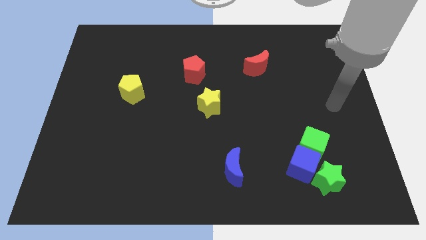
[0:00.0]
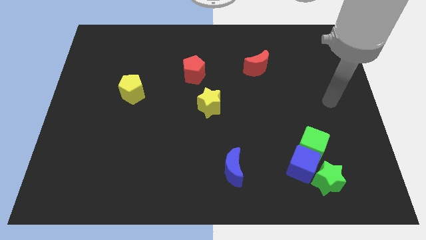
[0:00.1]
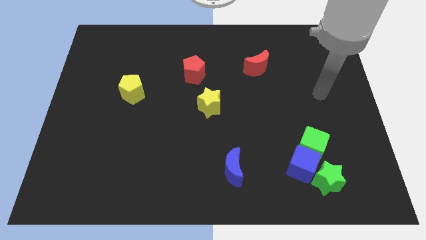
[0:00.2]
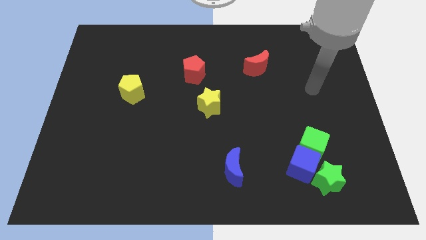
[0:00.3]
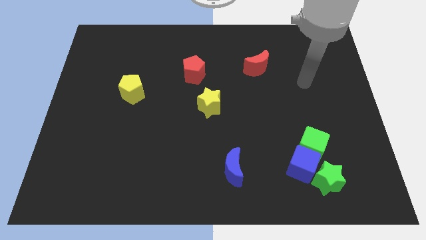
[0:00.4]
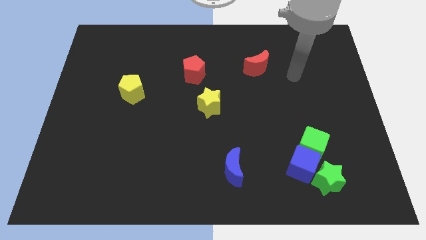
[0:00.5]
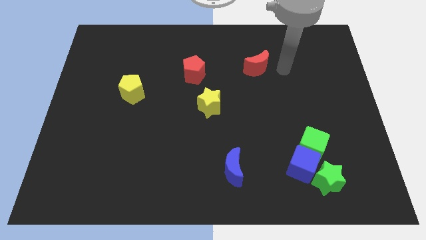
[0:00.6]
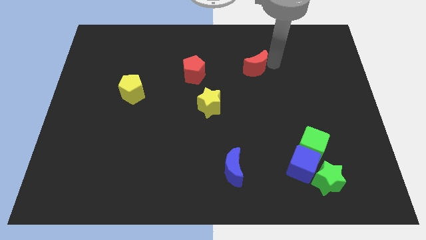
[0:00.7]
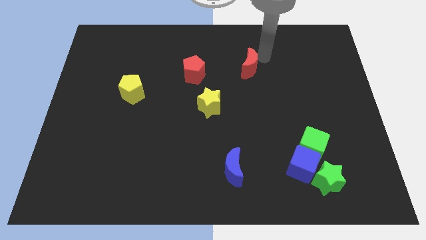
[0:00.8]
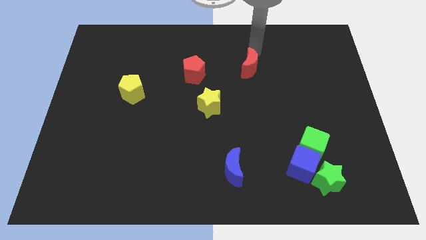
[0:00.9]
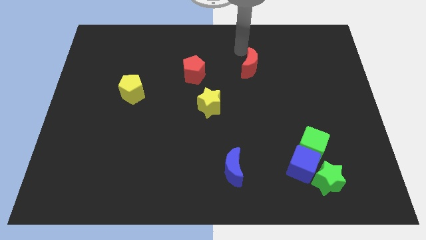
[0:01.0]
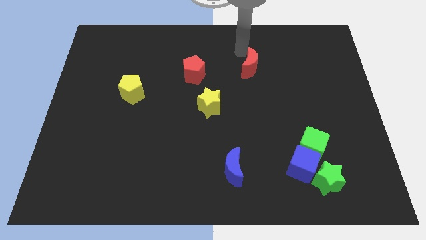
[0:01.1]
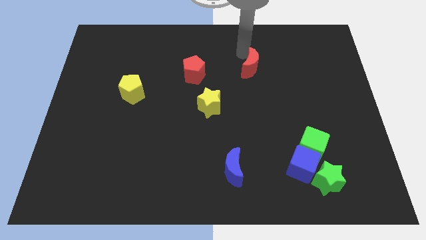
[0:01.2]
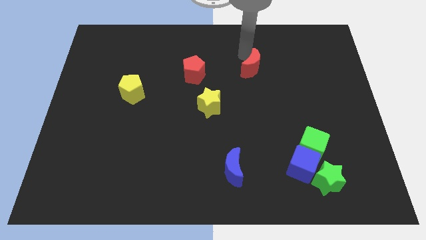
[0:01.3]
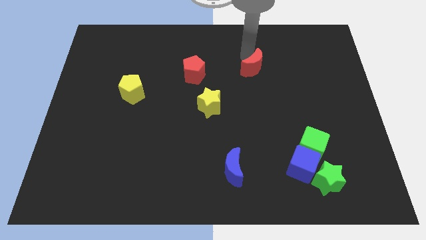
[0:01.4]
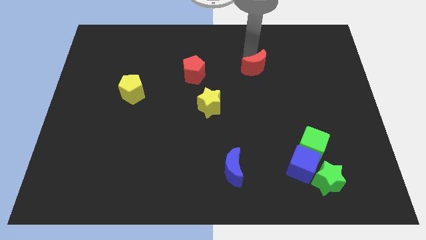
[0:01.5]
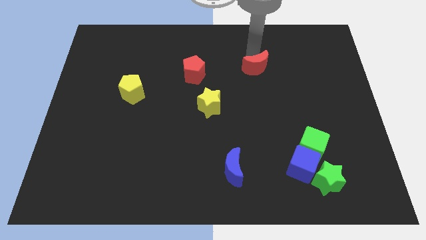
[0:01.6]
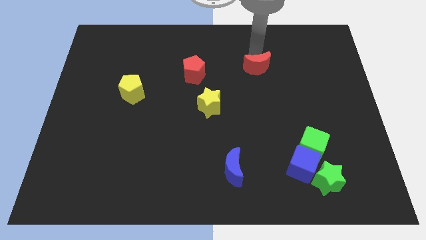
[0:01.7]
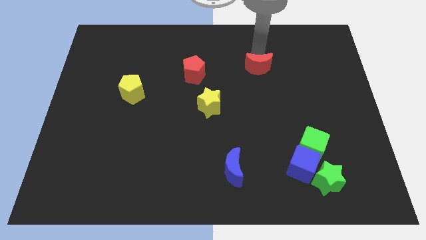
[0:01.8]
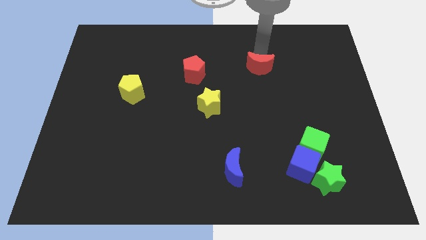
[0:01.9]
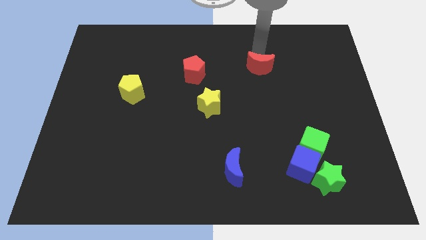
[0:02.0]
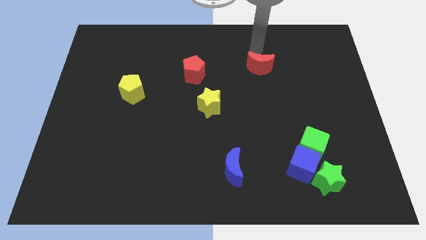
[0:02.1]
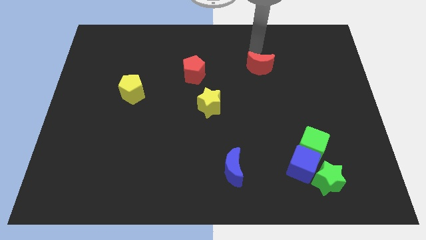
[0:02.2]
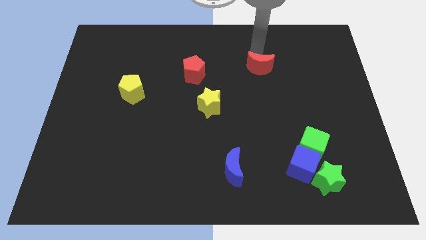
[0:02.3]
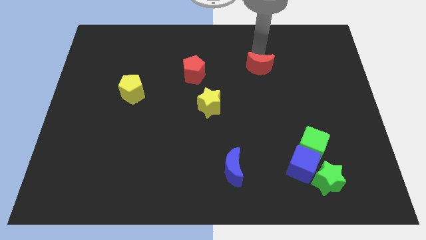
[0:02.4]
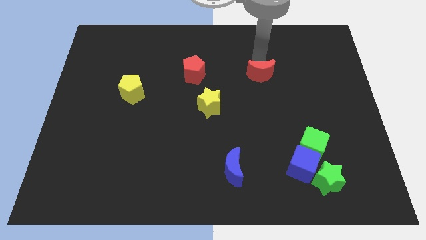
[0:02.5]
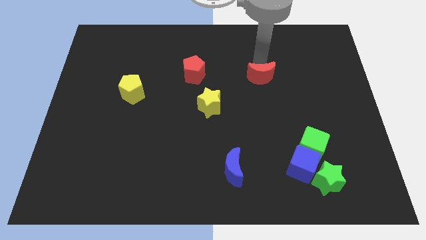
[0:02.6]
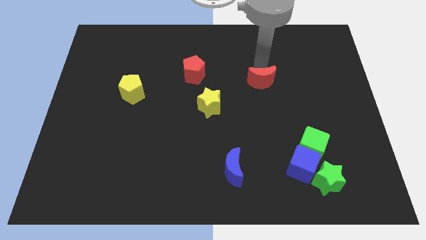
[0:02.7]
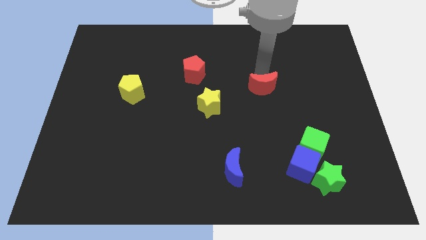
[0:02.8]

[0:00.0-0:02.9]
slide the red moon somewhat down

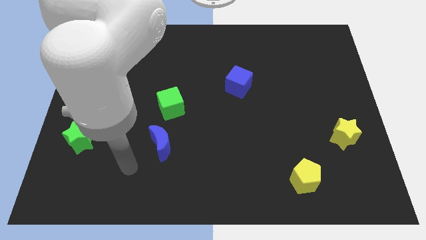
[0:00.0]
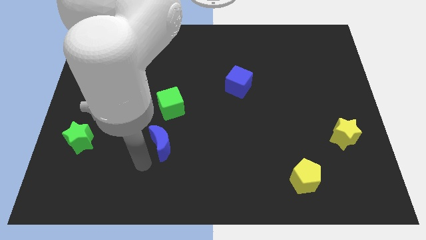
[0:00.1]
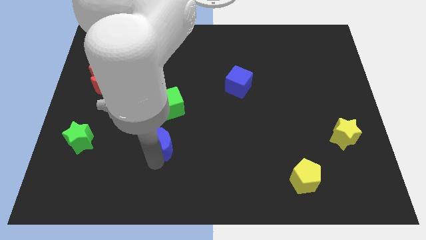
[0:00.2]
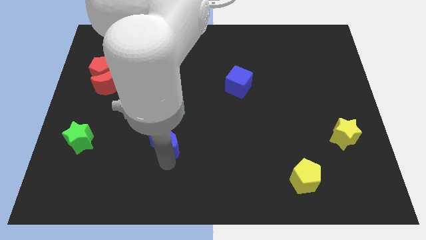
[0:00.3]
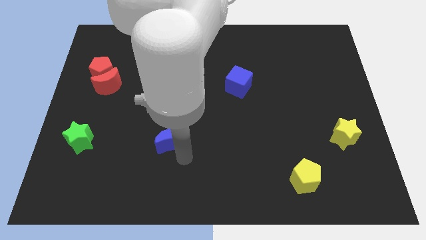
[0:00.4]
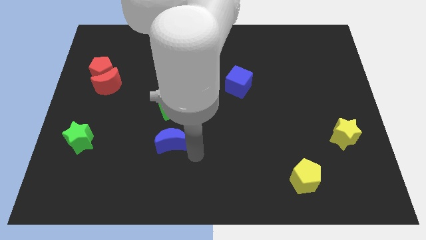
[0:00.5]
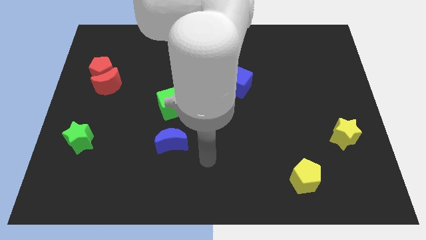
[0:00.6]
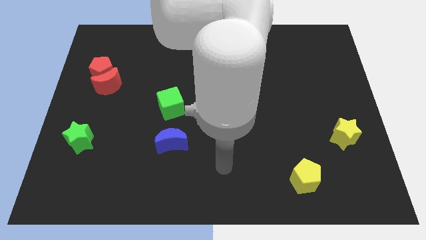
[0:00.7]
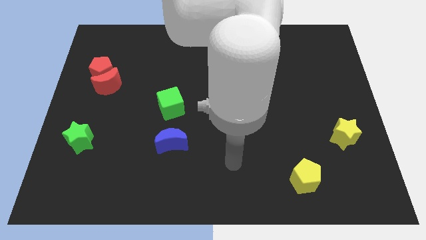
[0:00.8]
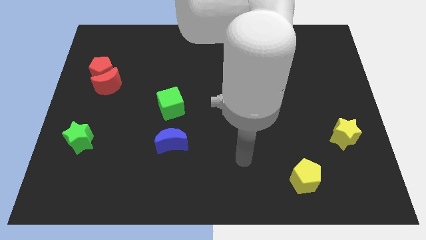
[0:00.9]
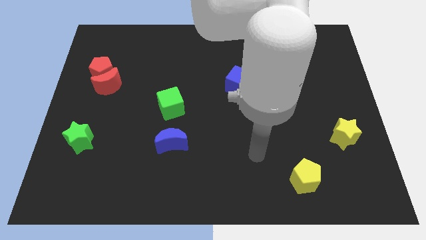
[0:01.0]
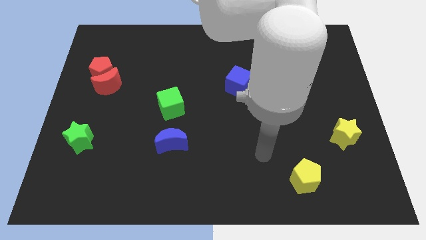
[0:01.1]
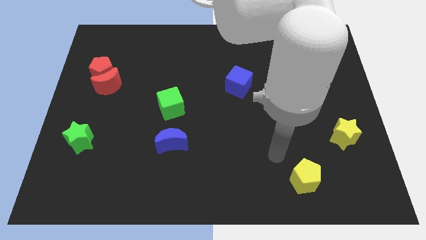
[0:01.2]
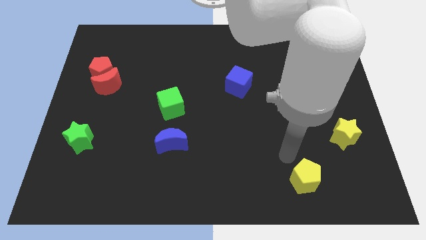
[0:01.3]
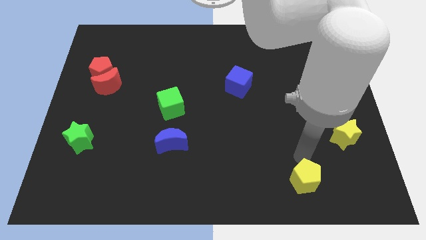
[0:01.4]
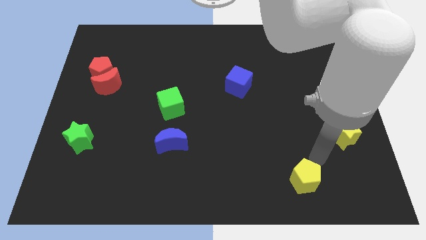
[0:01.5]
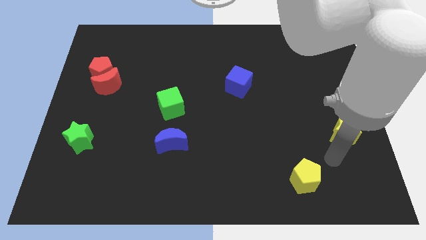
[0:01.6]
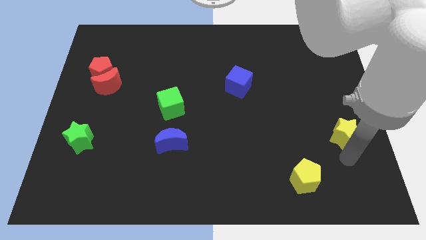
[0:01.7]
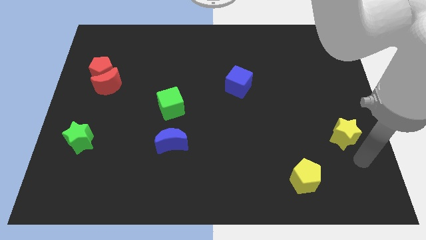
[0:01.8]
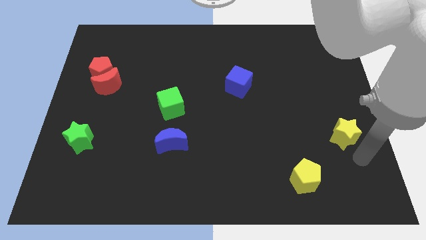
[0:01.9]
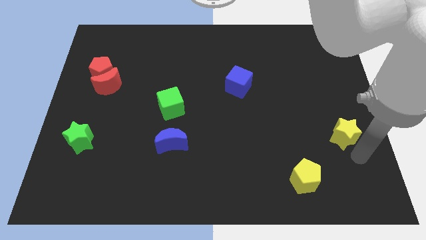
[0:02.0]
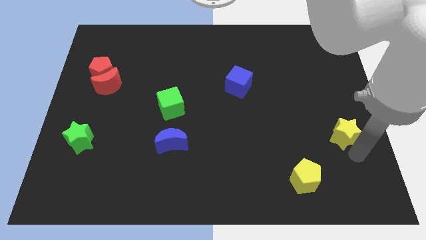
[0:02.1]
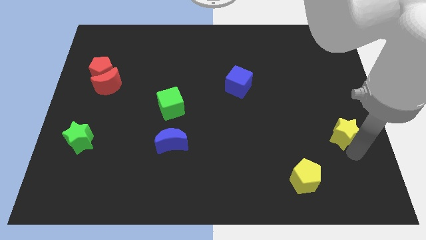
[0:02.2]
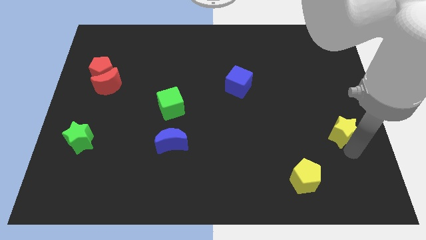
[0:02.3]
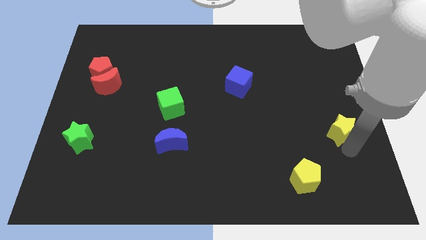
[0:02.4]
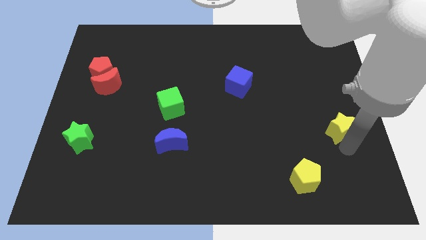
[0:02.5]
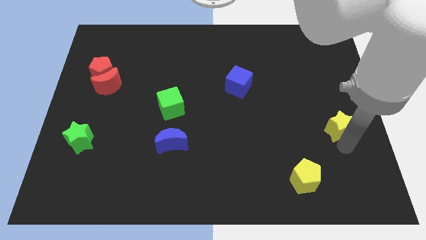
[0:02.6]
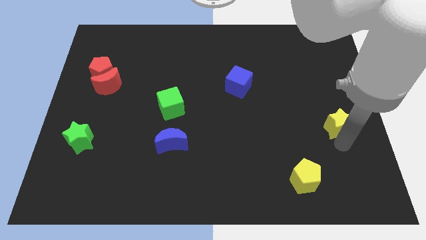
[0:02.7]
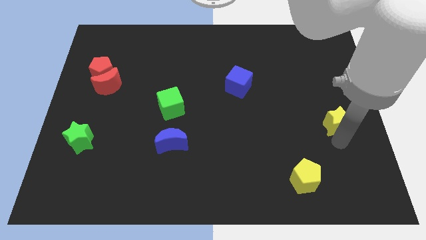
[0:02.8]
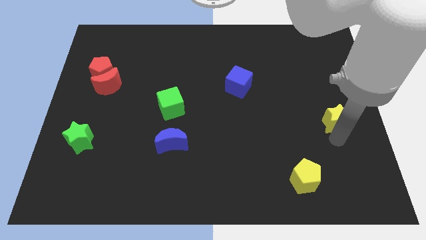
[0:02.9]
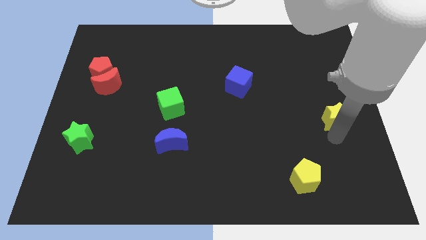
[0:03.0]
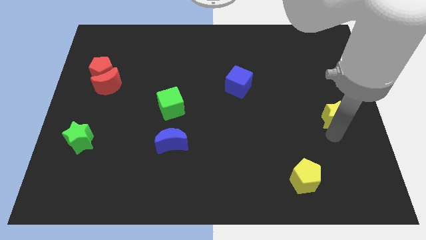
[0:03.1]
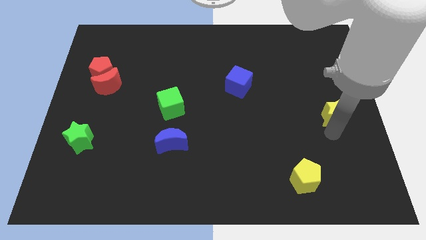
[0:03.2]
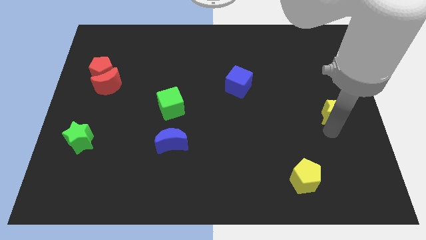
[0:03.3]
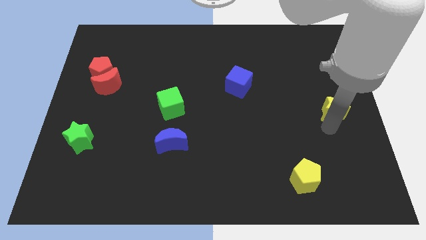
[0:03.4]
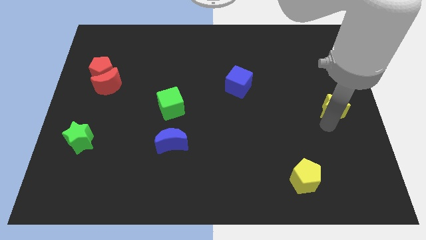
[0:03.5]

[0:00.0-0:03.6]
slightly push the yellow star upwards

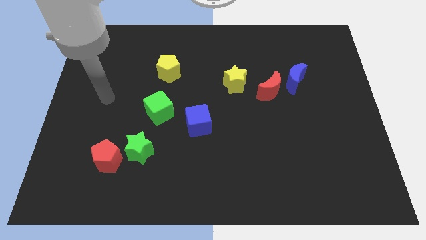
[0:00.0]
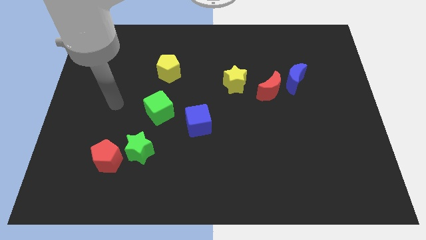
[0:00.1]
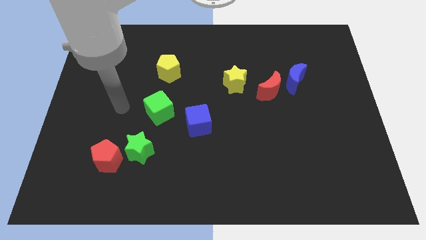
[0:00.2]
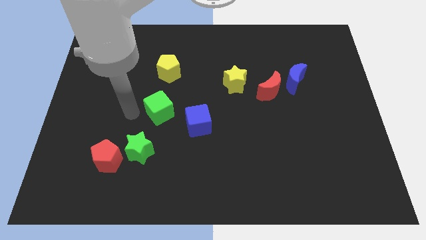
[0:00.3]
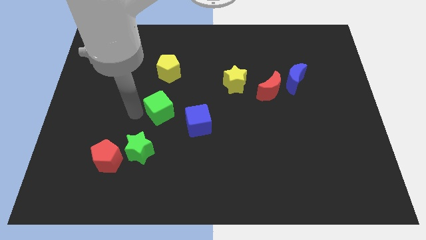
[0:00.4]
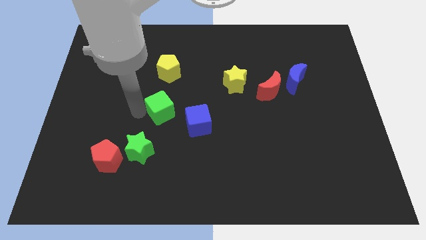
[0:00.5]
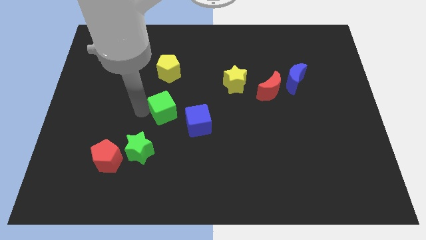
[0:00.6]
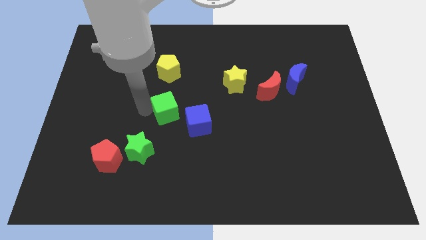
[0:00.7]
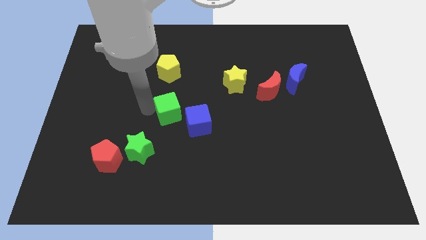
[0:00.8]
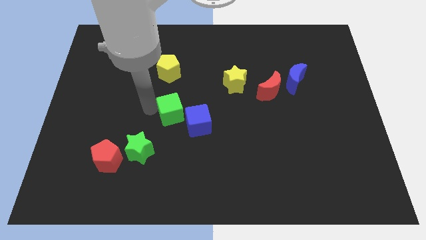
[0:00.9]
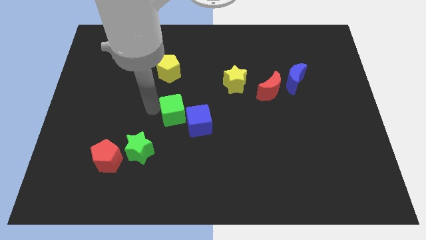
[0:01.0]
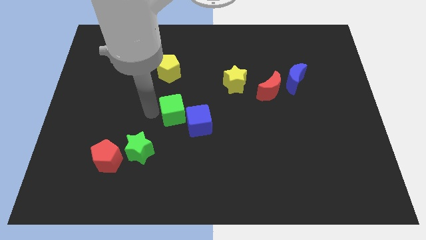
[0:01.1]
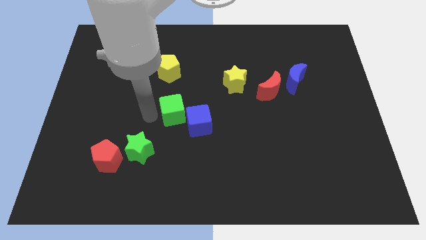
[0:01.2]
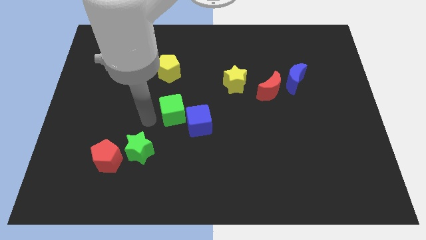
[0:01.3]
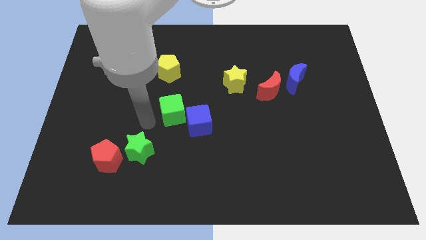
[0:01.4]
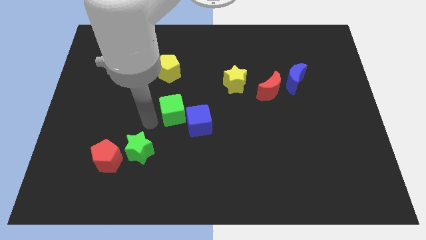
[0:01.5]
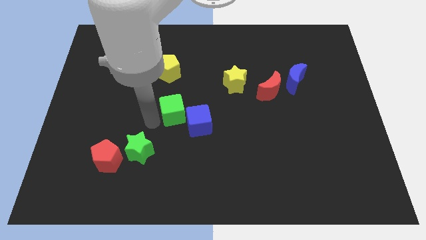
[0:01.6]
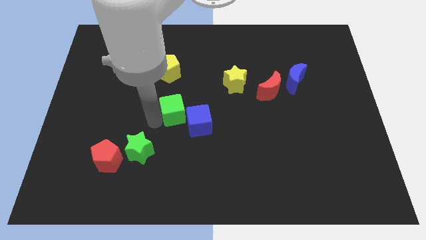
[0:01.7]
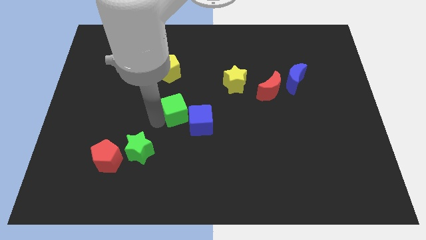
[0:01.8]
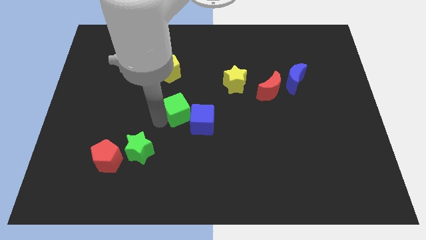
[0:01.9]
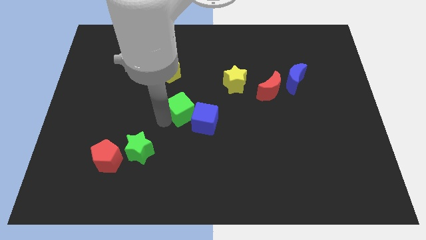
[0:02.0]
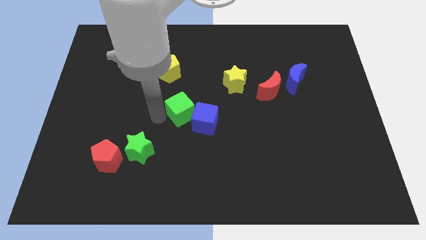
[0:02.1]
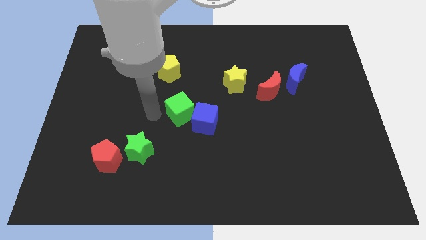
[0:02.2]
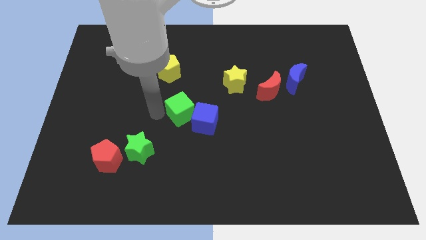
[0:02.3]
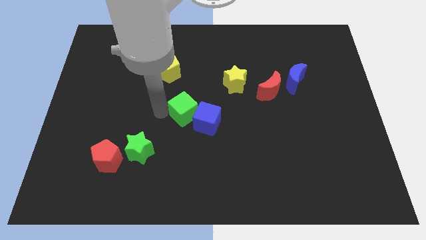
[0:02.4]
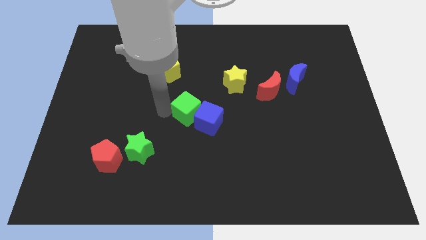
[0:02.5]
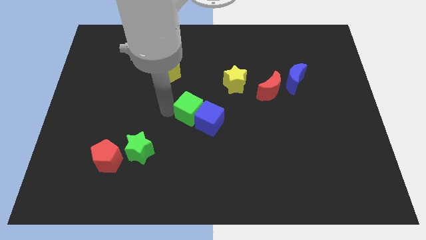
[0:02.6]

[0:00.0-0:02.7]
move the green cube to the right a little
